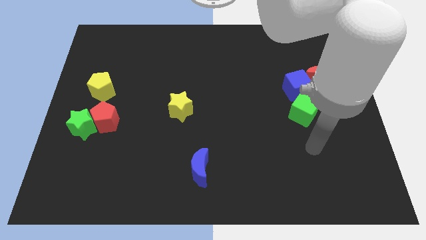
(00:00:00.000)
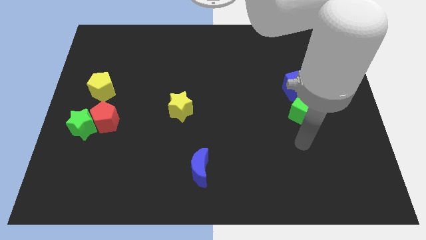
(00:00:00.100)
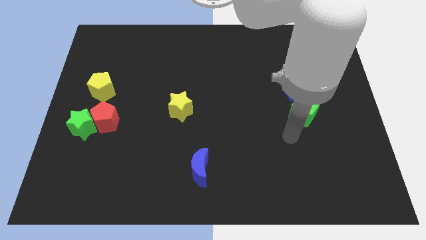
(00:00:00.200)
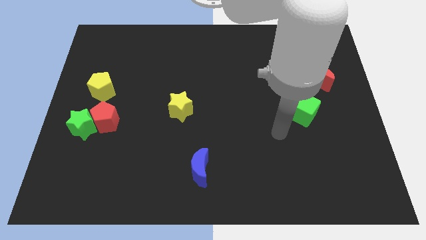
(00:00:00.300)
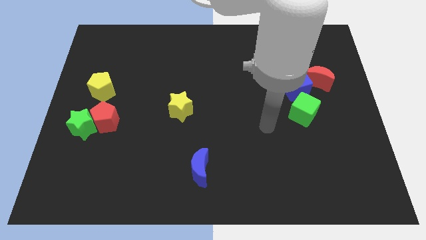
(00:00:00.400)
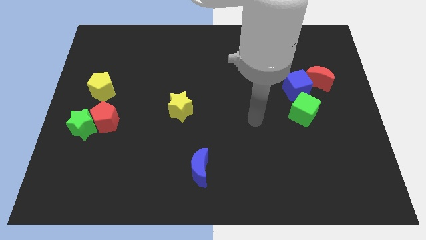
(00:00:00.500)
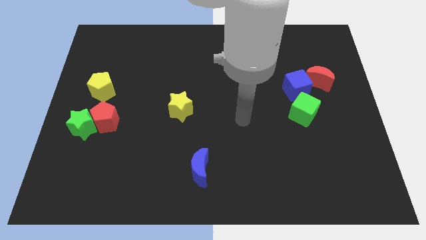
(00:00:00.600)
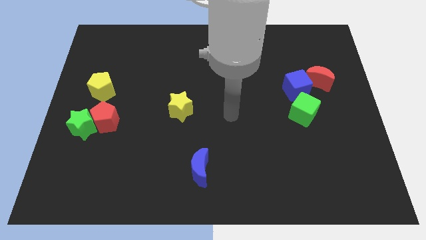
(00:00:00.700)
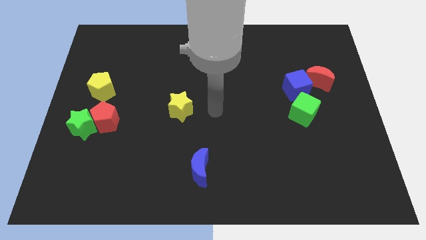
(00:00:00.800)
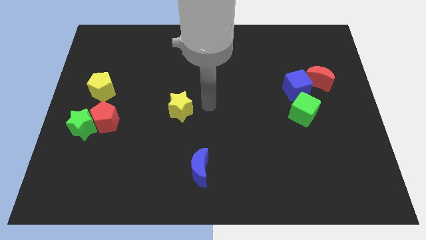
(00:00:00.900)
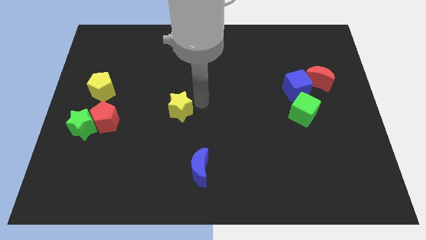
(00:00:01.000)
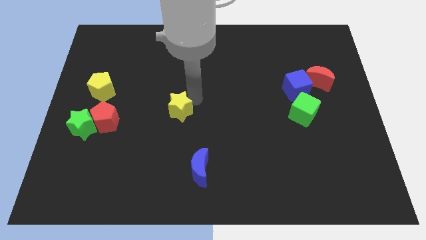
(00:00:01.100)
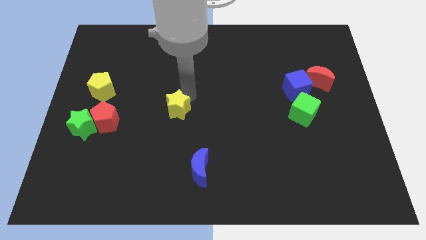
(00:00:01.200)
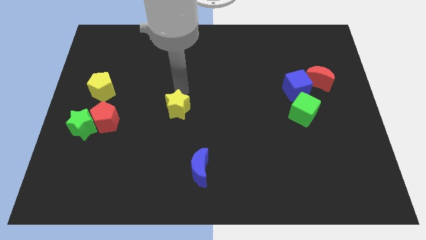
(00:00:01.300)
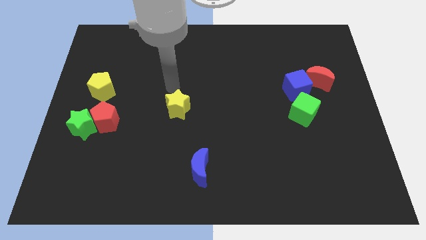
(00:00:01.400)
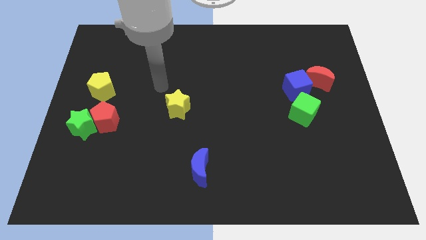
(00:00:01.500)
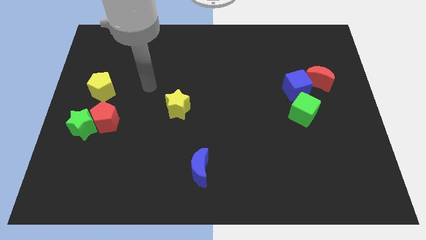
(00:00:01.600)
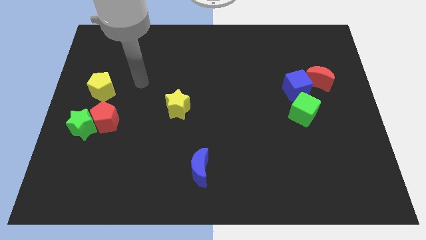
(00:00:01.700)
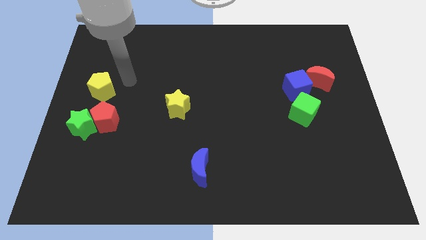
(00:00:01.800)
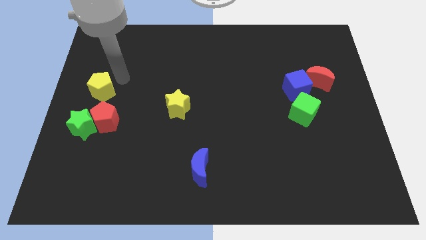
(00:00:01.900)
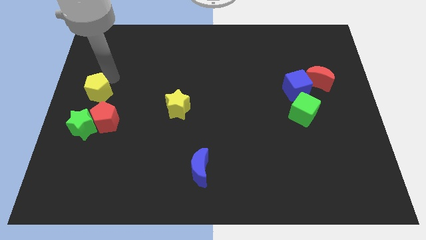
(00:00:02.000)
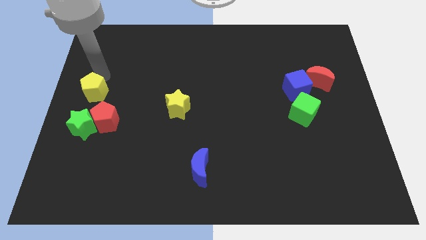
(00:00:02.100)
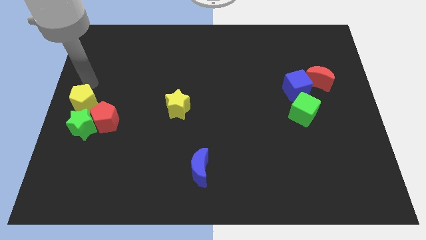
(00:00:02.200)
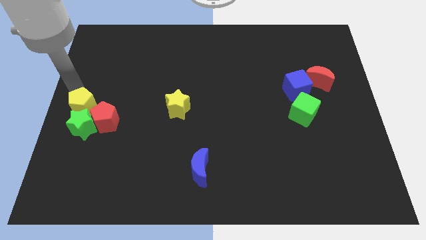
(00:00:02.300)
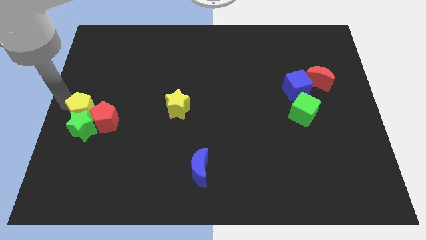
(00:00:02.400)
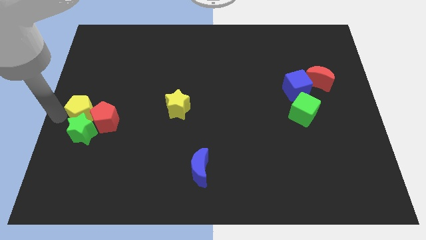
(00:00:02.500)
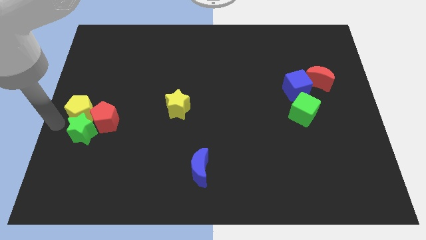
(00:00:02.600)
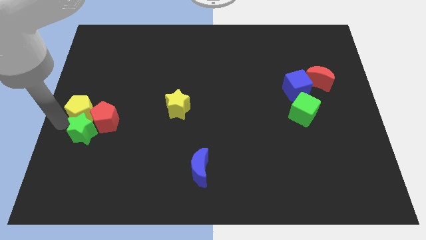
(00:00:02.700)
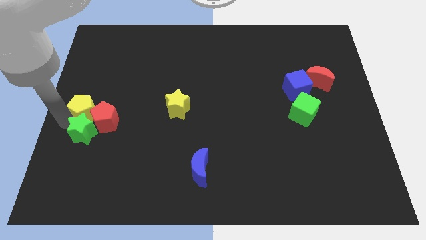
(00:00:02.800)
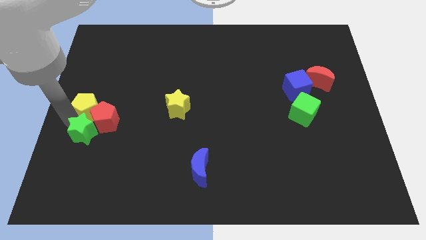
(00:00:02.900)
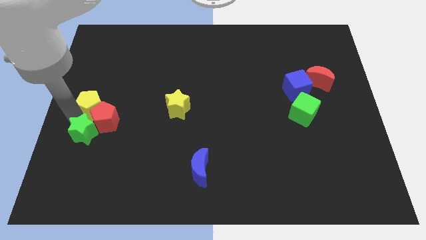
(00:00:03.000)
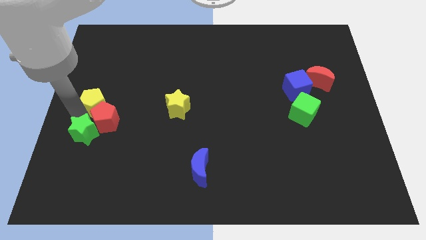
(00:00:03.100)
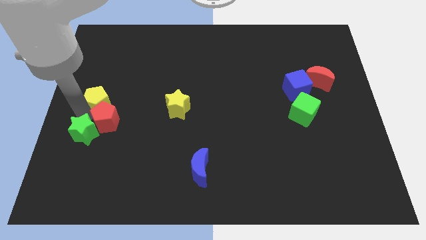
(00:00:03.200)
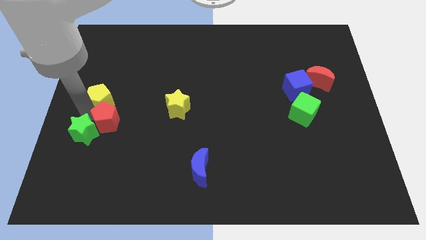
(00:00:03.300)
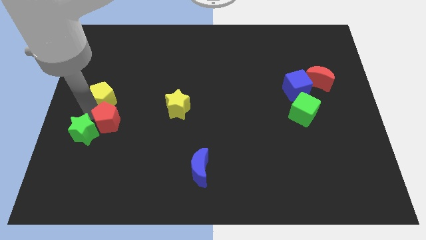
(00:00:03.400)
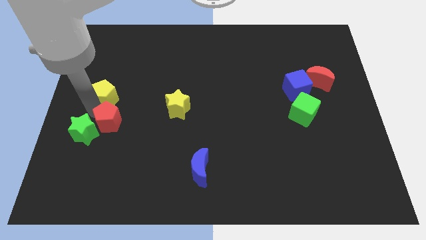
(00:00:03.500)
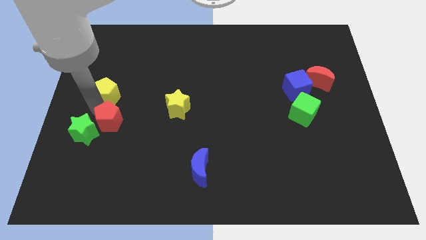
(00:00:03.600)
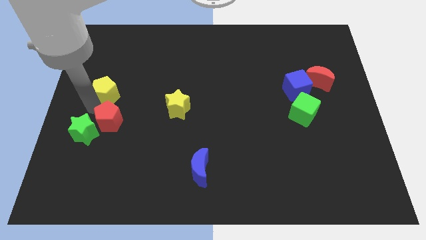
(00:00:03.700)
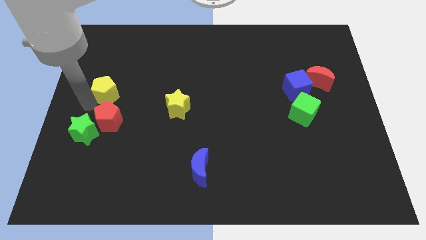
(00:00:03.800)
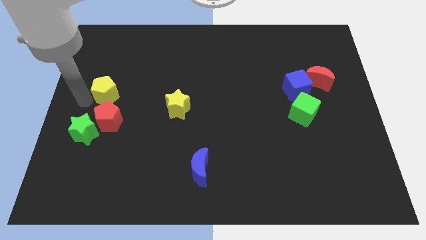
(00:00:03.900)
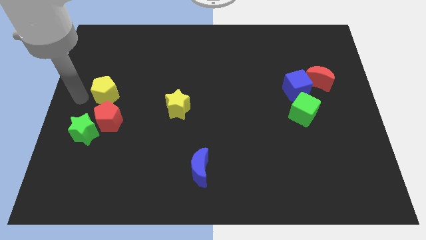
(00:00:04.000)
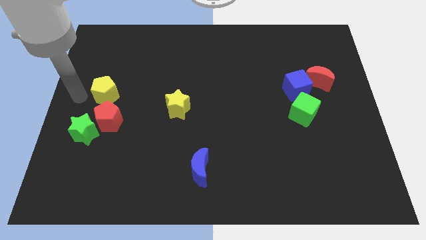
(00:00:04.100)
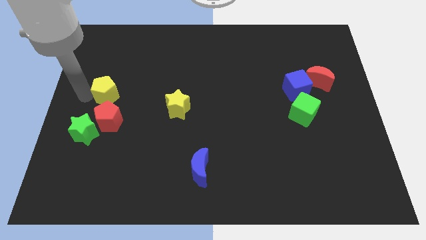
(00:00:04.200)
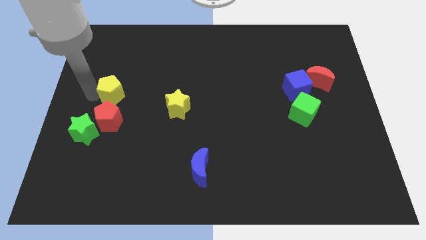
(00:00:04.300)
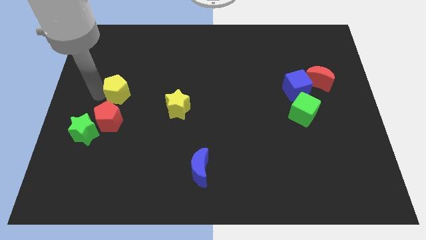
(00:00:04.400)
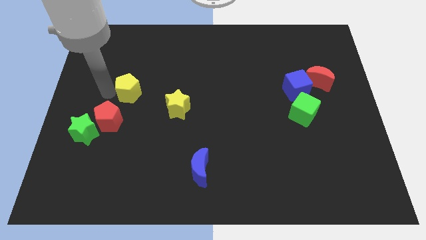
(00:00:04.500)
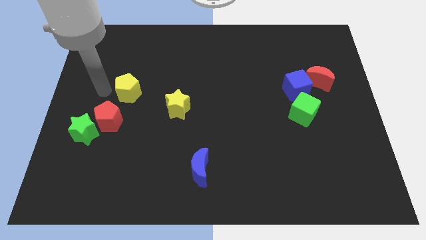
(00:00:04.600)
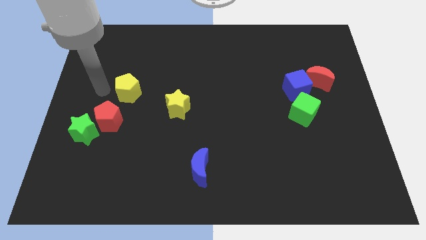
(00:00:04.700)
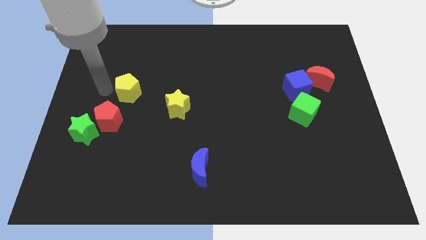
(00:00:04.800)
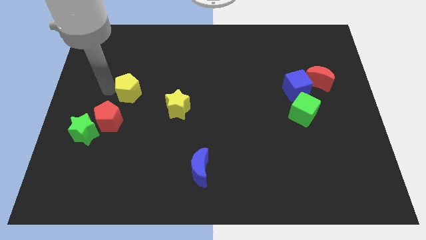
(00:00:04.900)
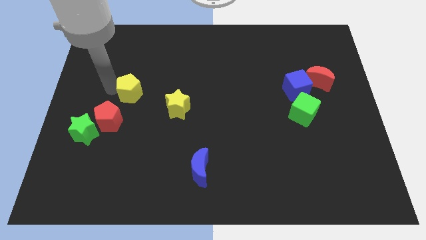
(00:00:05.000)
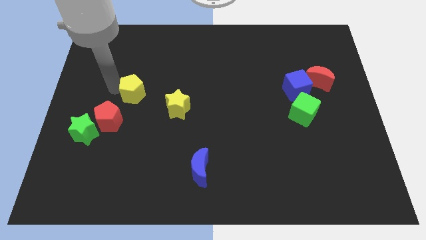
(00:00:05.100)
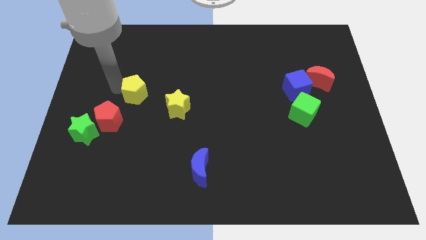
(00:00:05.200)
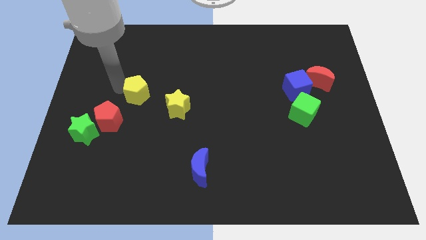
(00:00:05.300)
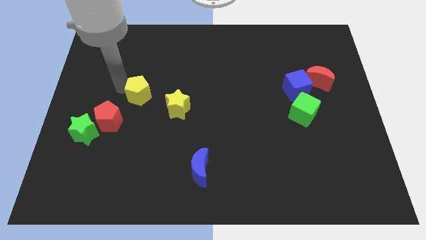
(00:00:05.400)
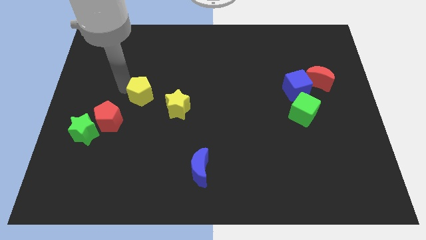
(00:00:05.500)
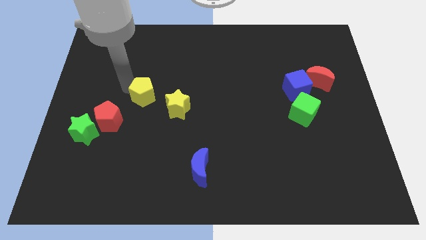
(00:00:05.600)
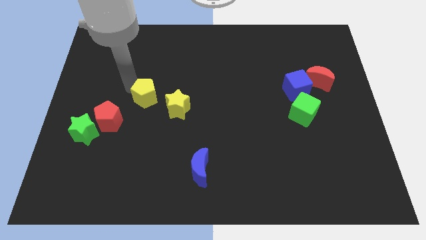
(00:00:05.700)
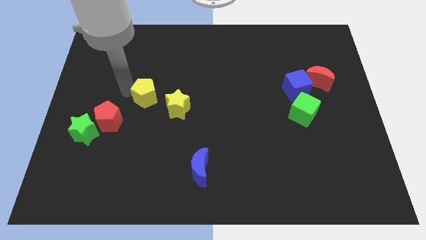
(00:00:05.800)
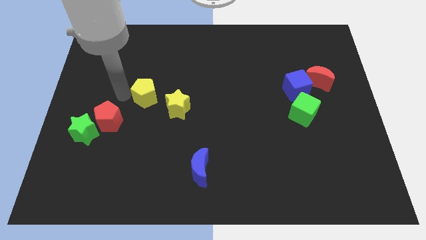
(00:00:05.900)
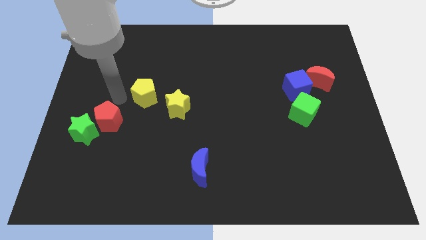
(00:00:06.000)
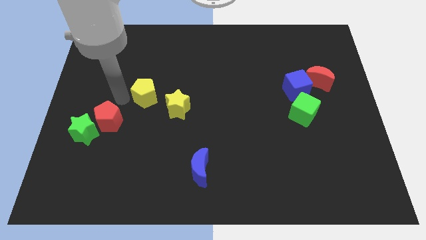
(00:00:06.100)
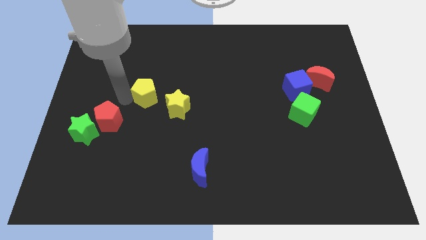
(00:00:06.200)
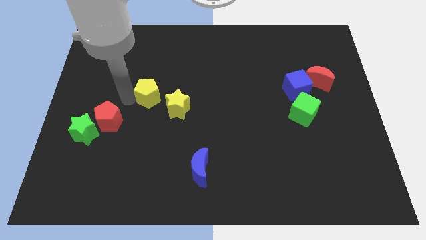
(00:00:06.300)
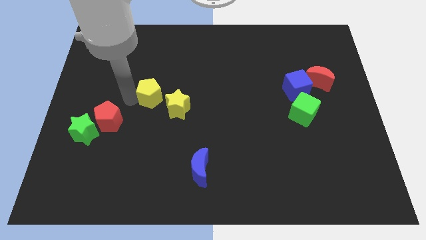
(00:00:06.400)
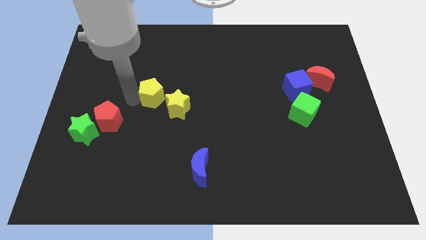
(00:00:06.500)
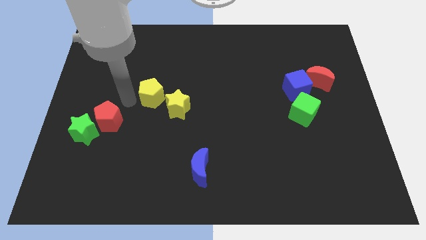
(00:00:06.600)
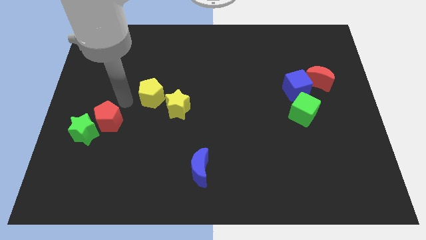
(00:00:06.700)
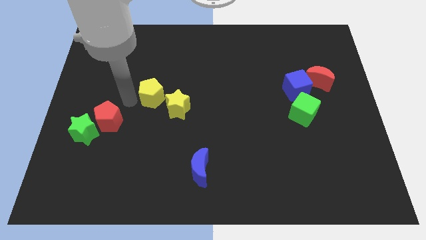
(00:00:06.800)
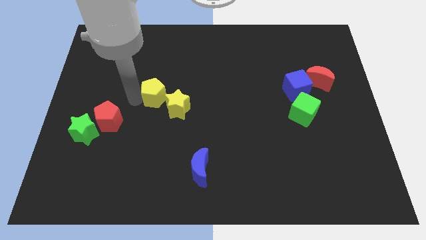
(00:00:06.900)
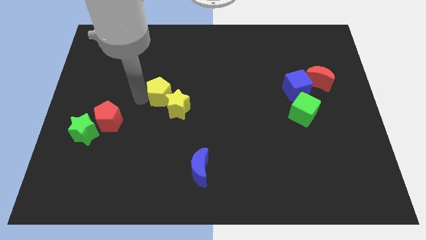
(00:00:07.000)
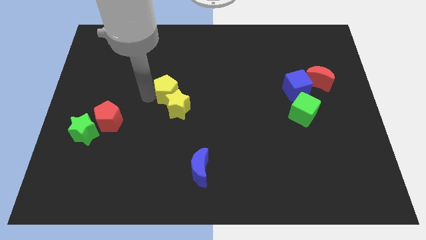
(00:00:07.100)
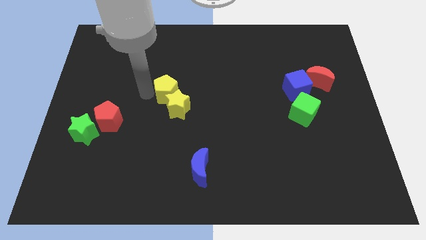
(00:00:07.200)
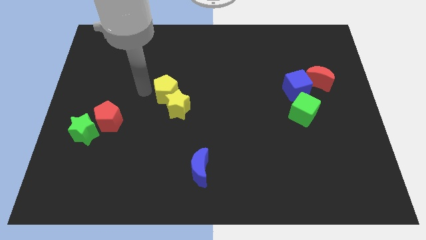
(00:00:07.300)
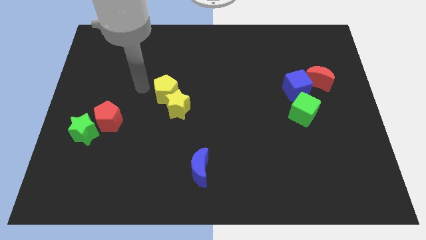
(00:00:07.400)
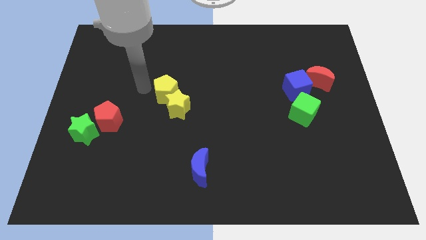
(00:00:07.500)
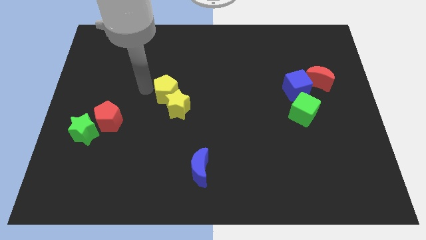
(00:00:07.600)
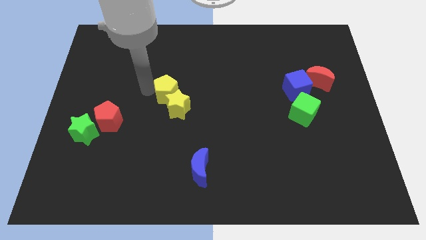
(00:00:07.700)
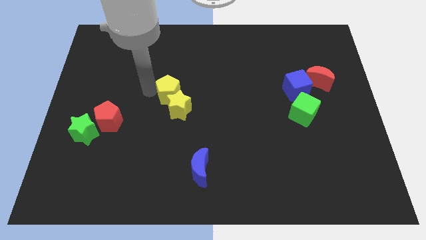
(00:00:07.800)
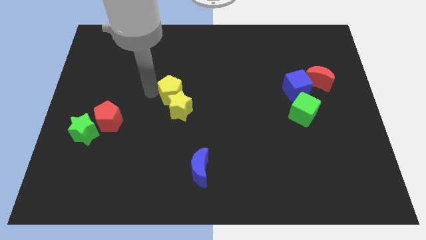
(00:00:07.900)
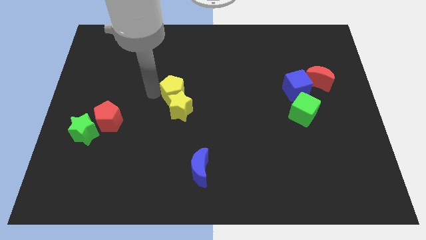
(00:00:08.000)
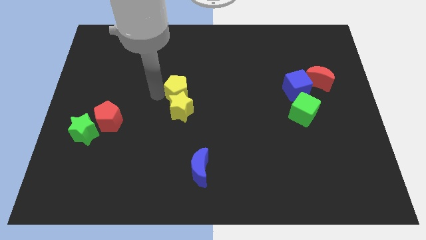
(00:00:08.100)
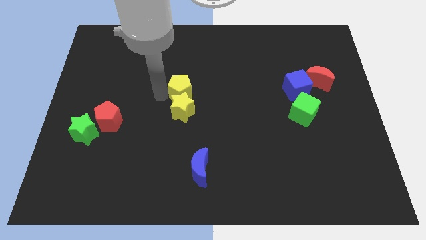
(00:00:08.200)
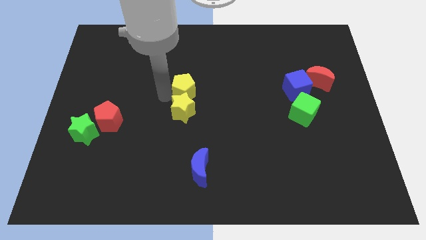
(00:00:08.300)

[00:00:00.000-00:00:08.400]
move the yellow pentagon right
